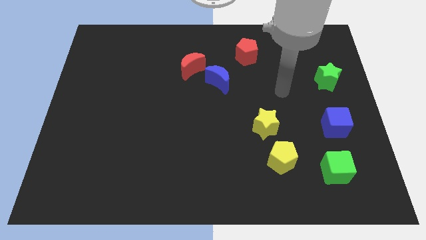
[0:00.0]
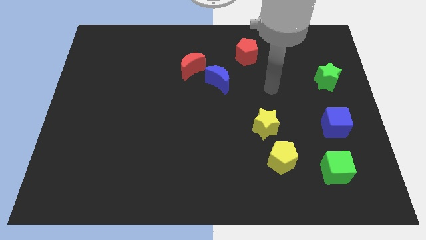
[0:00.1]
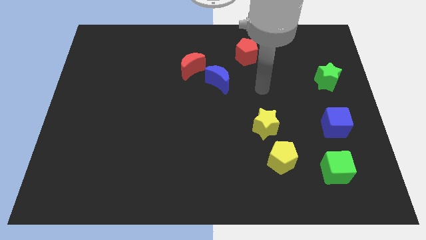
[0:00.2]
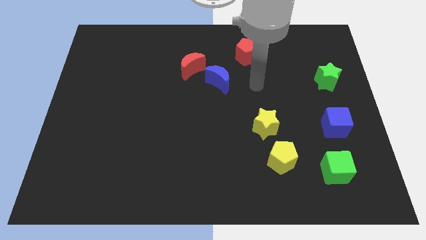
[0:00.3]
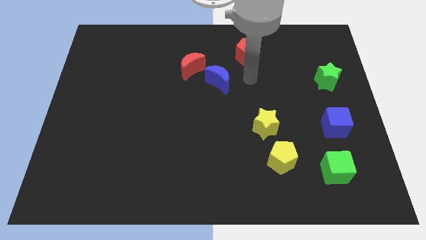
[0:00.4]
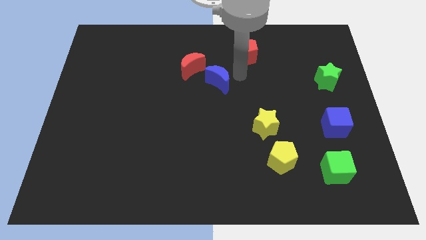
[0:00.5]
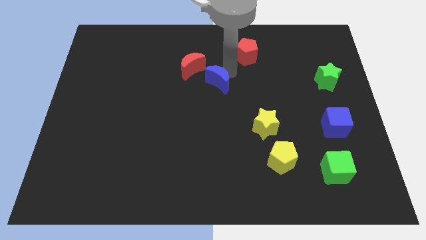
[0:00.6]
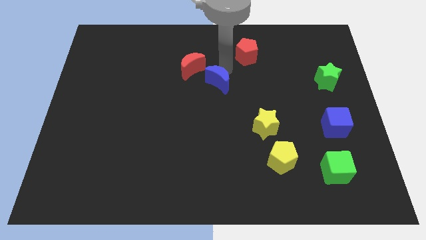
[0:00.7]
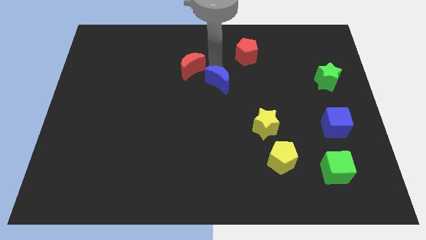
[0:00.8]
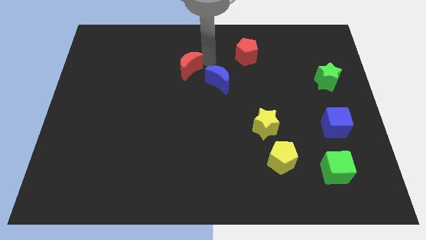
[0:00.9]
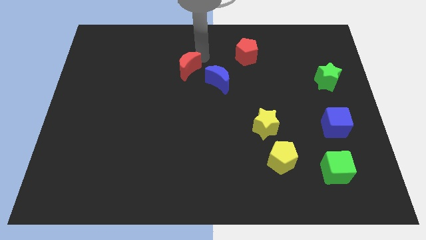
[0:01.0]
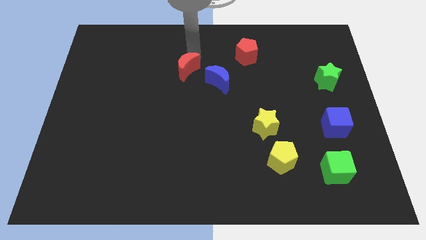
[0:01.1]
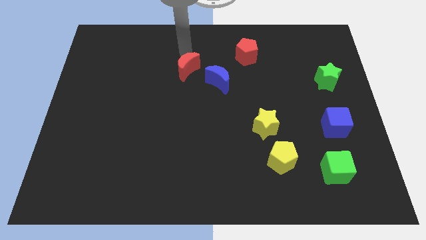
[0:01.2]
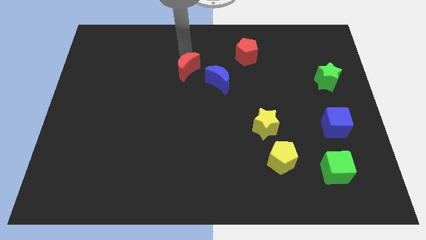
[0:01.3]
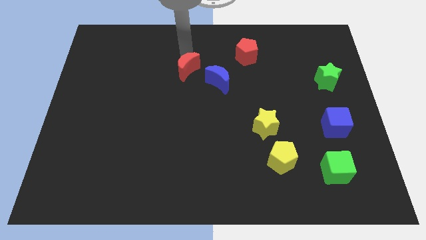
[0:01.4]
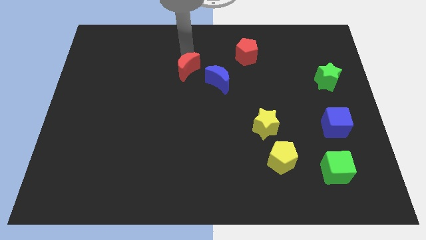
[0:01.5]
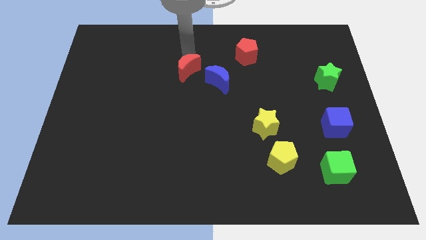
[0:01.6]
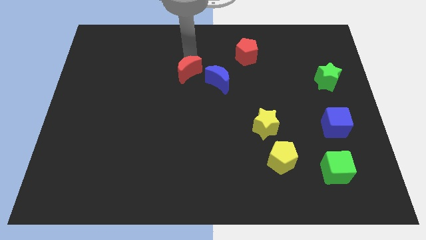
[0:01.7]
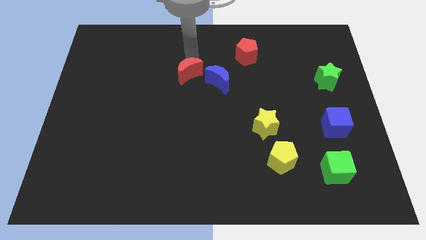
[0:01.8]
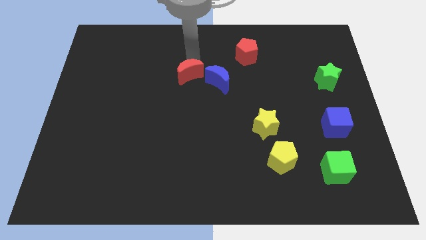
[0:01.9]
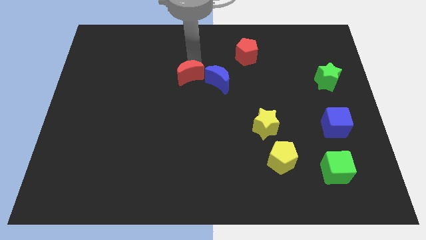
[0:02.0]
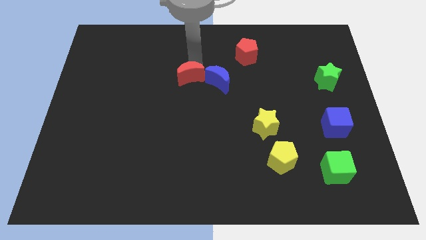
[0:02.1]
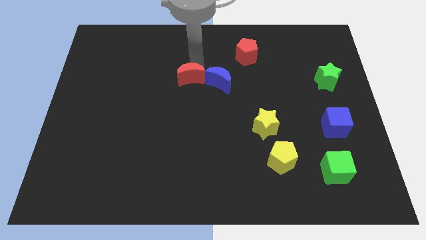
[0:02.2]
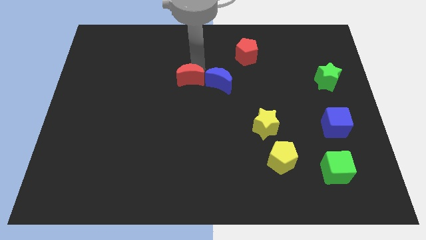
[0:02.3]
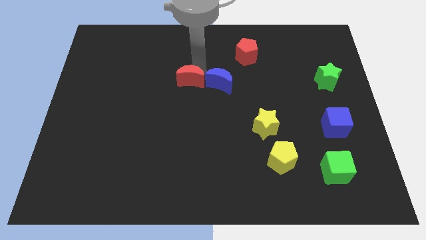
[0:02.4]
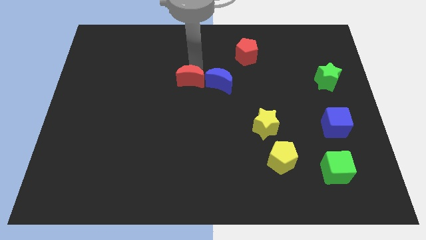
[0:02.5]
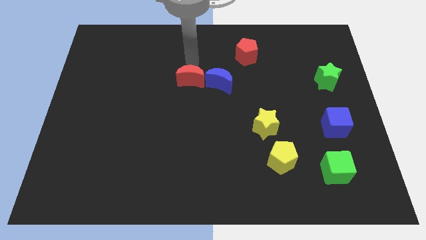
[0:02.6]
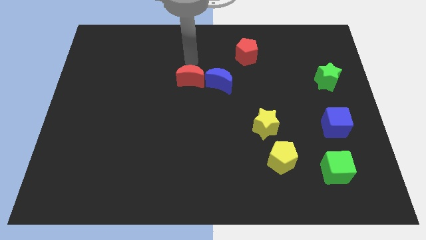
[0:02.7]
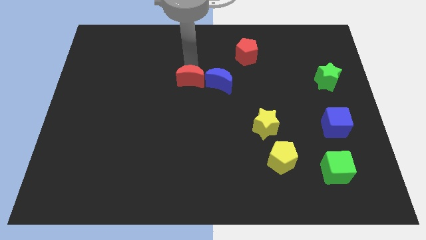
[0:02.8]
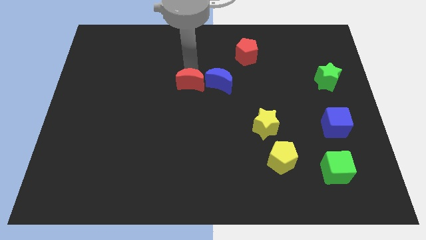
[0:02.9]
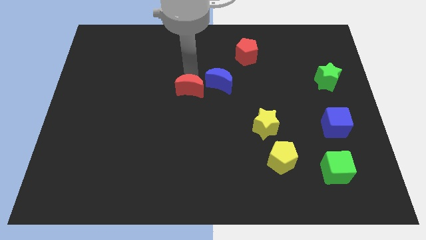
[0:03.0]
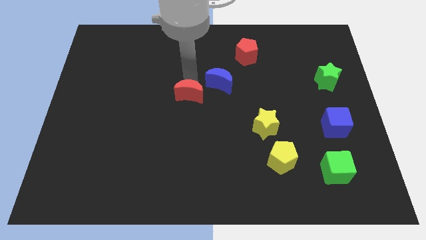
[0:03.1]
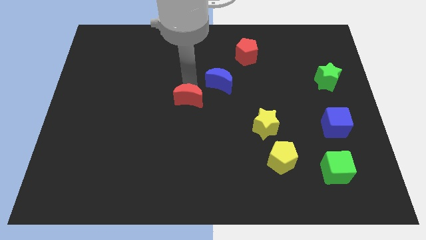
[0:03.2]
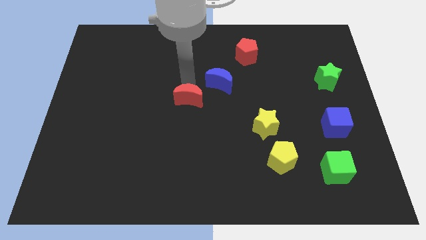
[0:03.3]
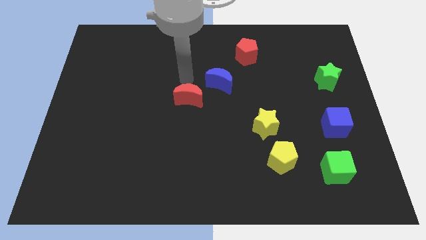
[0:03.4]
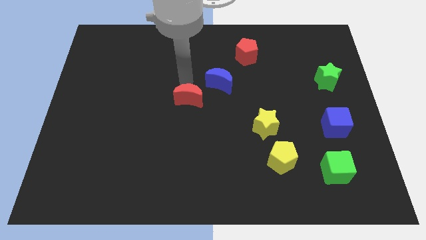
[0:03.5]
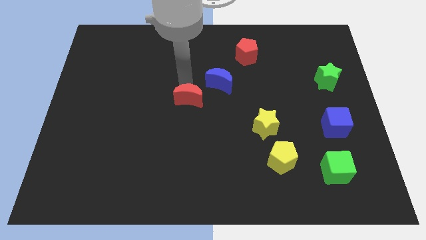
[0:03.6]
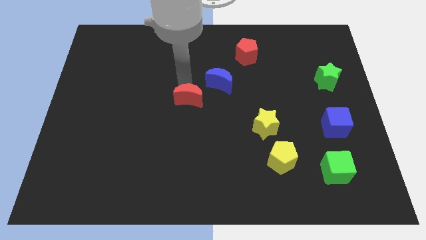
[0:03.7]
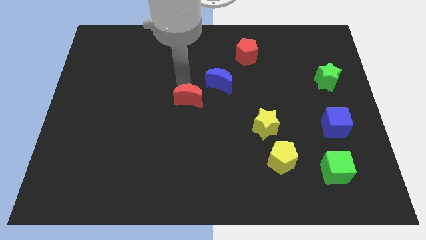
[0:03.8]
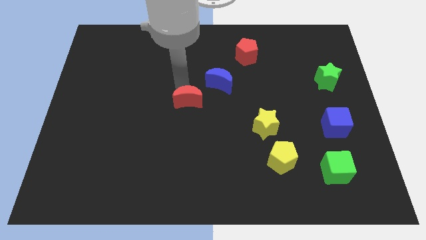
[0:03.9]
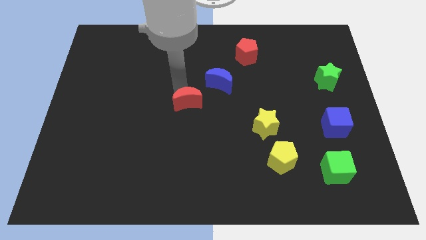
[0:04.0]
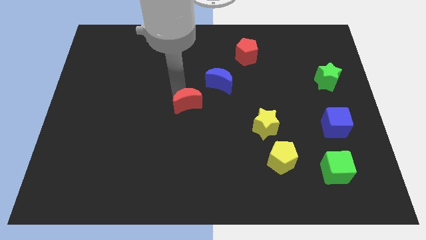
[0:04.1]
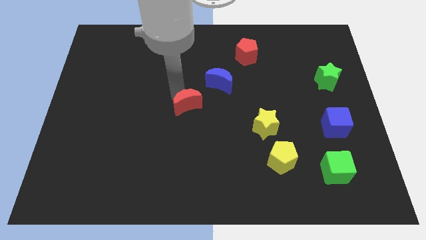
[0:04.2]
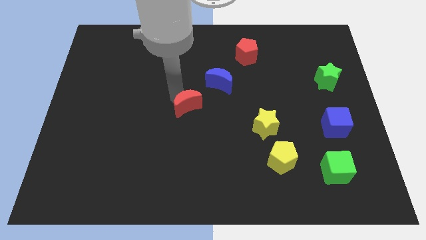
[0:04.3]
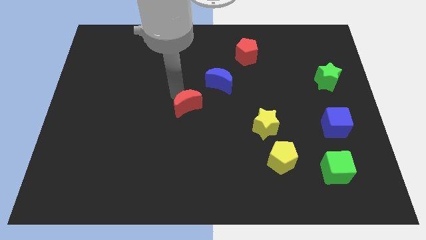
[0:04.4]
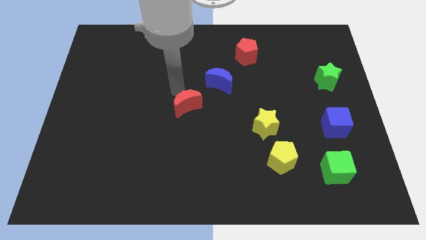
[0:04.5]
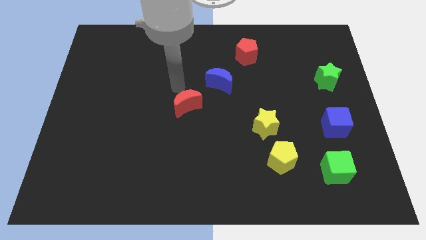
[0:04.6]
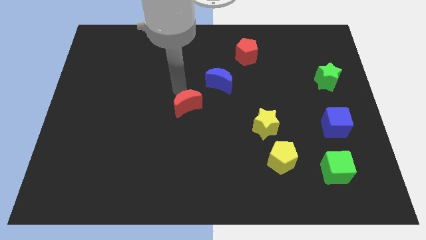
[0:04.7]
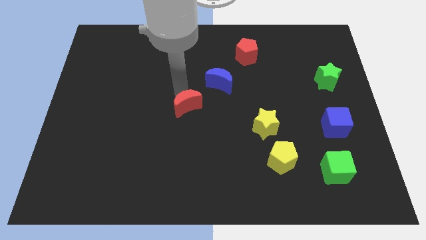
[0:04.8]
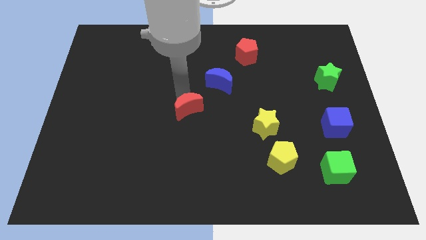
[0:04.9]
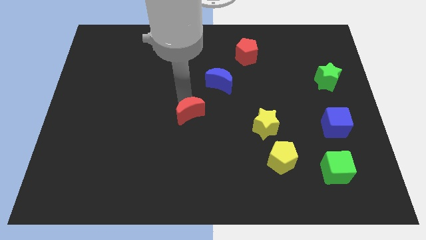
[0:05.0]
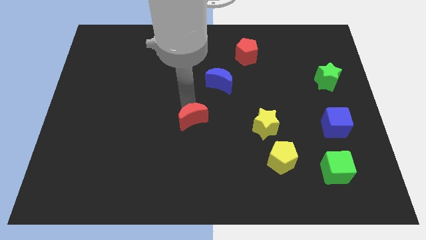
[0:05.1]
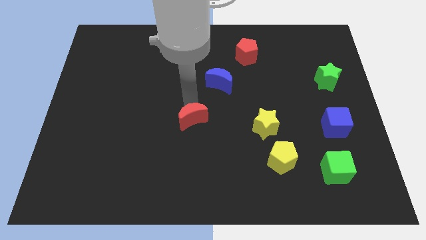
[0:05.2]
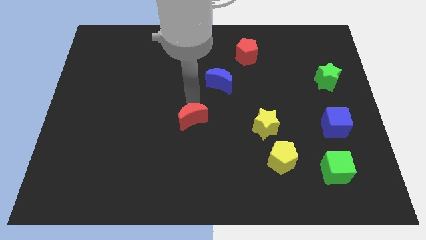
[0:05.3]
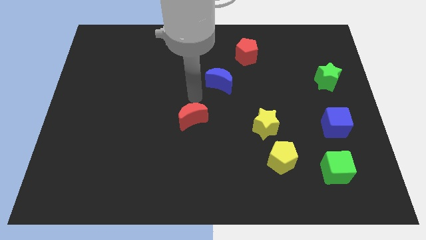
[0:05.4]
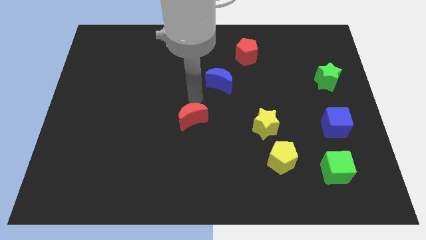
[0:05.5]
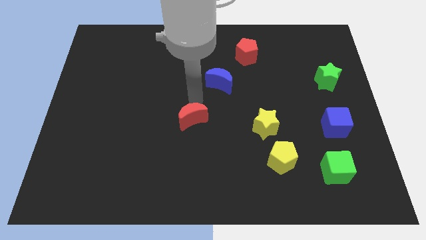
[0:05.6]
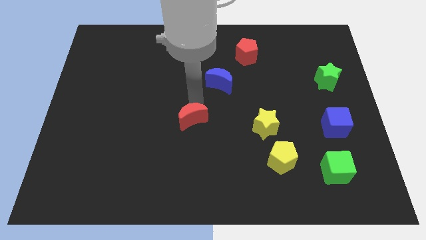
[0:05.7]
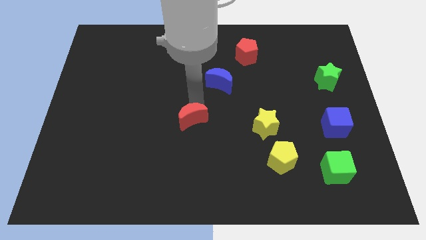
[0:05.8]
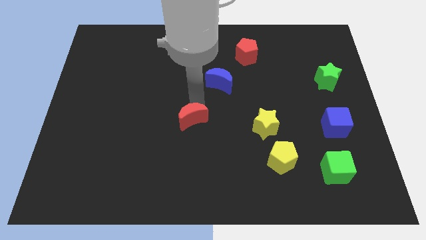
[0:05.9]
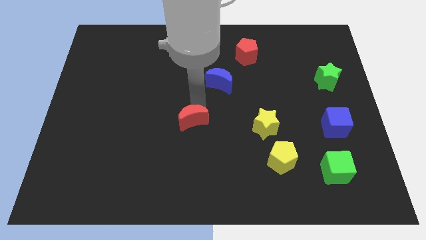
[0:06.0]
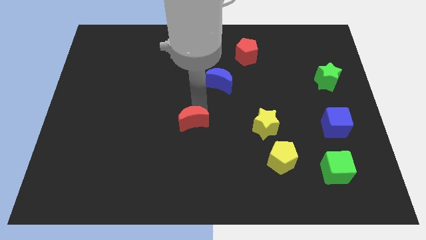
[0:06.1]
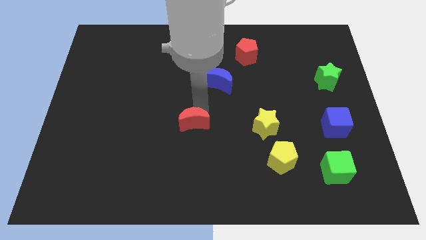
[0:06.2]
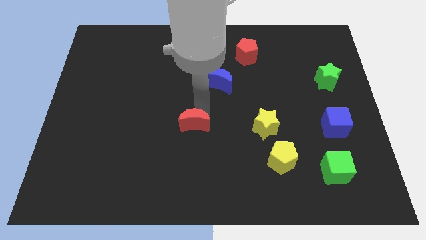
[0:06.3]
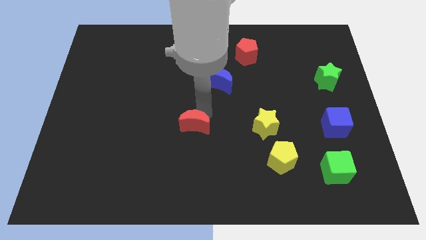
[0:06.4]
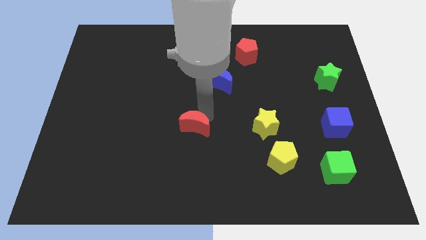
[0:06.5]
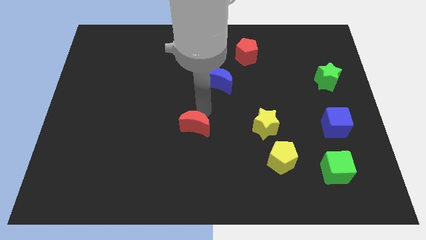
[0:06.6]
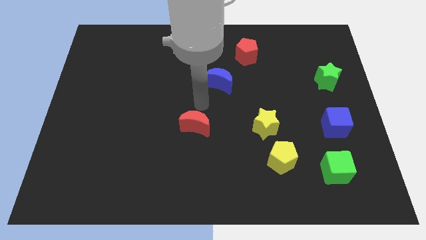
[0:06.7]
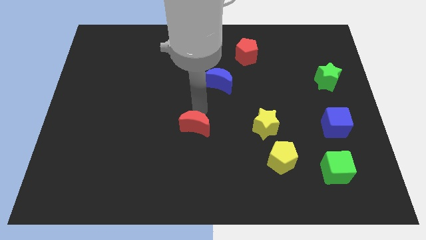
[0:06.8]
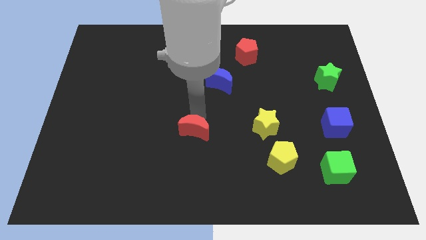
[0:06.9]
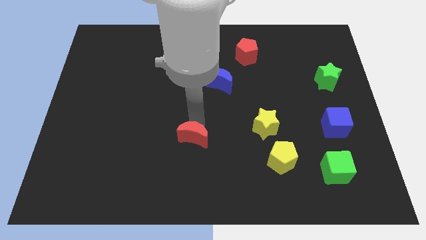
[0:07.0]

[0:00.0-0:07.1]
push the red moon downwards

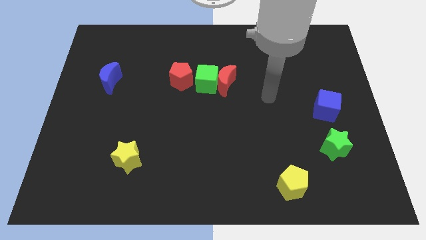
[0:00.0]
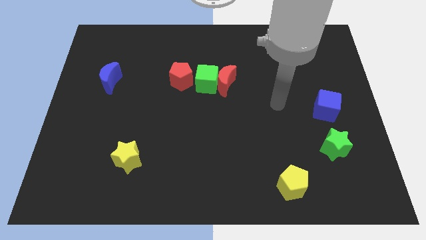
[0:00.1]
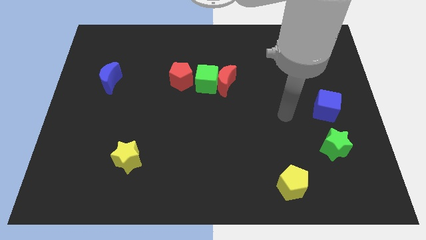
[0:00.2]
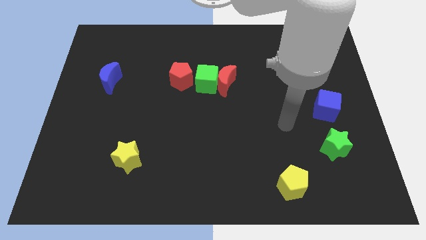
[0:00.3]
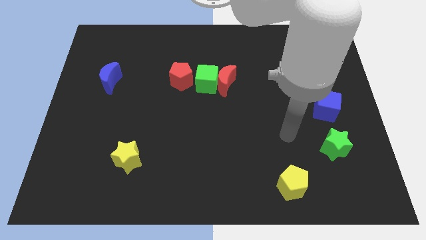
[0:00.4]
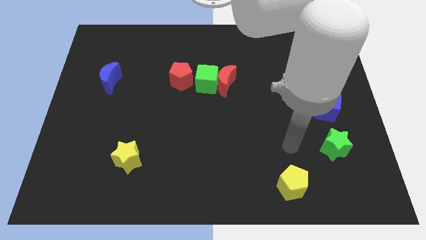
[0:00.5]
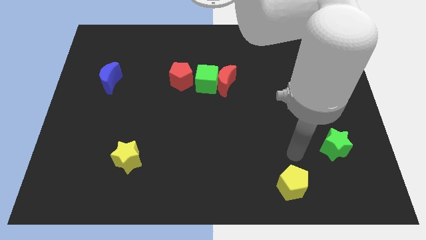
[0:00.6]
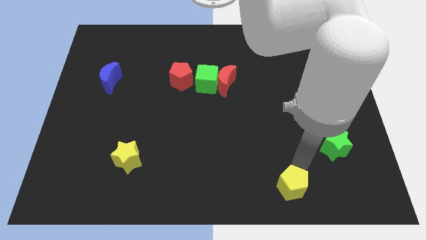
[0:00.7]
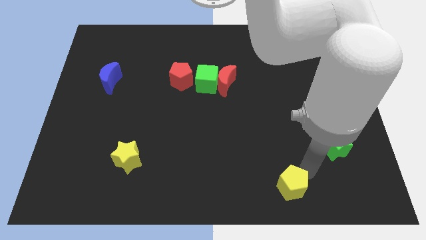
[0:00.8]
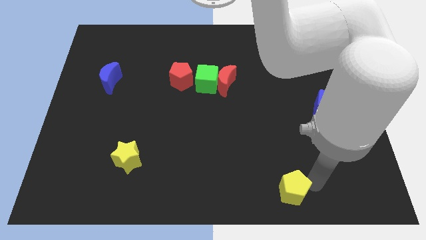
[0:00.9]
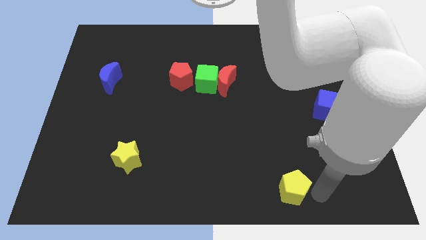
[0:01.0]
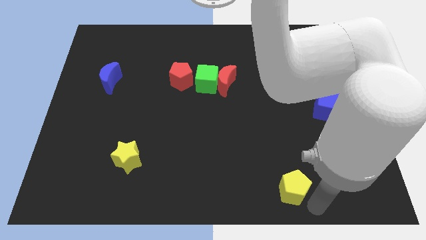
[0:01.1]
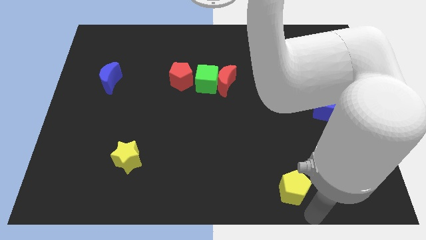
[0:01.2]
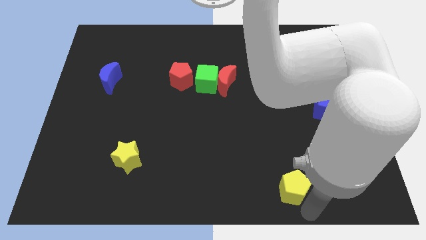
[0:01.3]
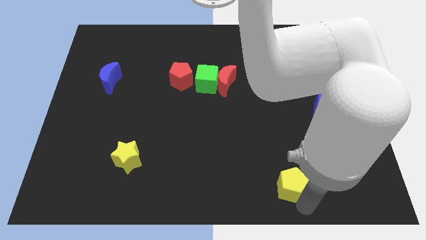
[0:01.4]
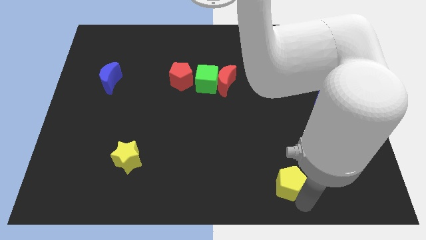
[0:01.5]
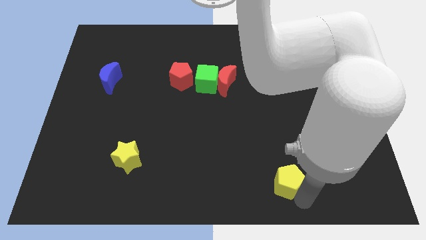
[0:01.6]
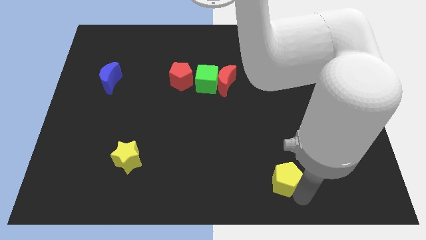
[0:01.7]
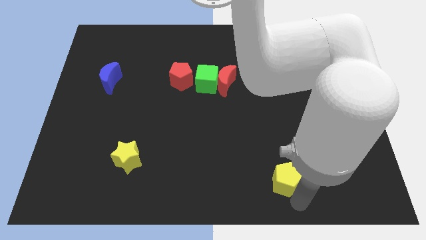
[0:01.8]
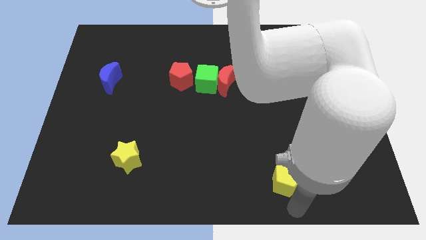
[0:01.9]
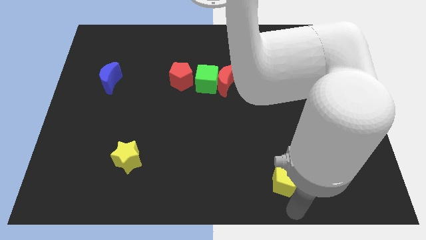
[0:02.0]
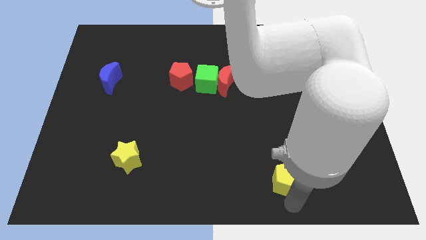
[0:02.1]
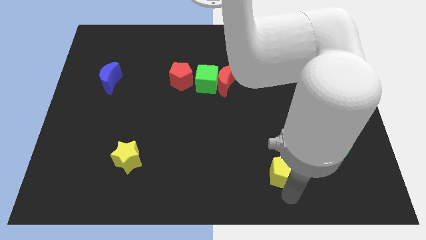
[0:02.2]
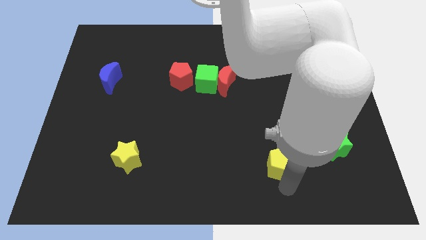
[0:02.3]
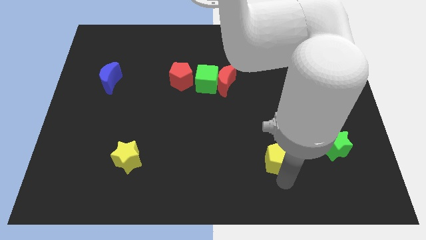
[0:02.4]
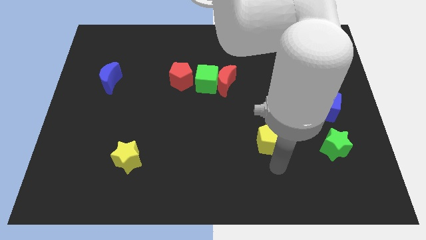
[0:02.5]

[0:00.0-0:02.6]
slightly slide the yellow pentagon upwards
